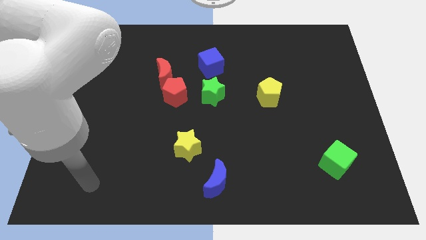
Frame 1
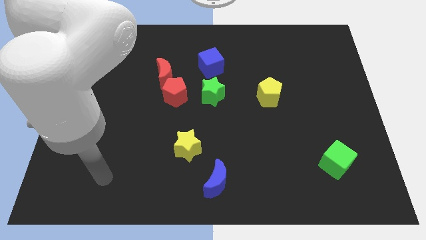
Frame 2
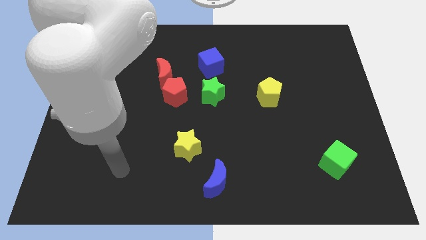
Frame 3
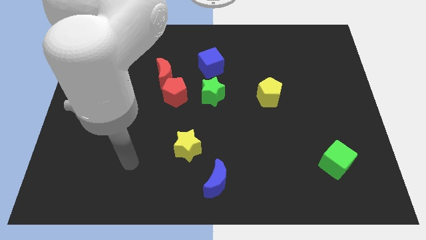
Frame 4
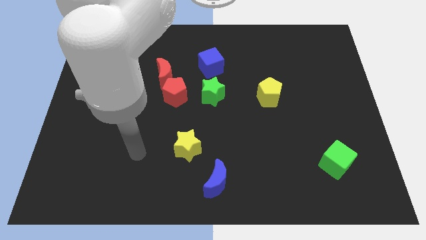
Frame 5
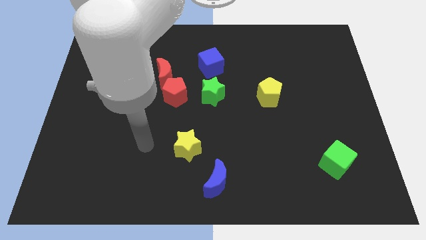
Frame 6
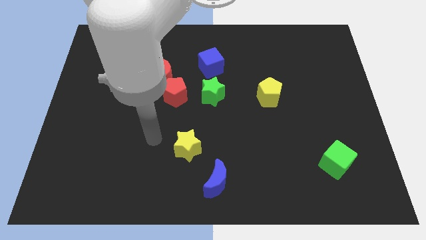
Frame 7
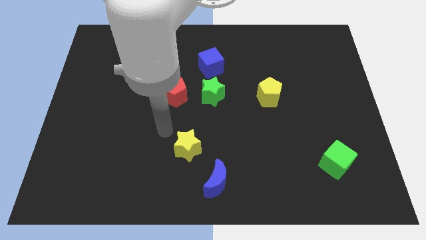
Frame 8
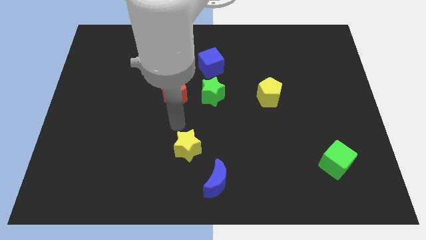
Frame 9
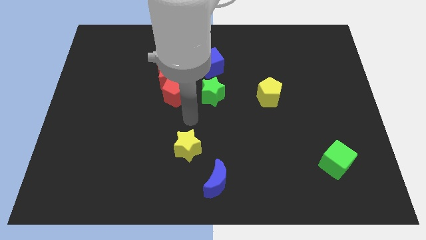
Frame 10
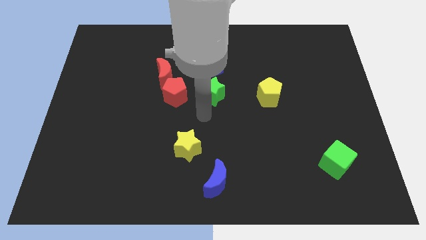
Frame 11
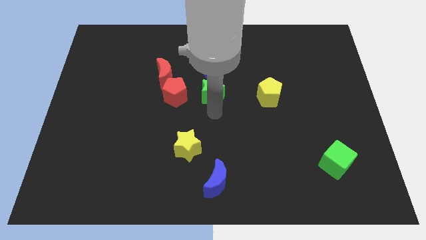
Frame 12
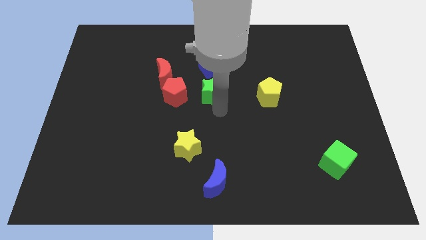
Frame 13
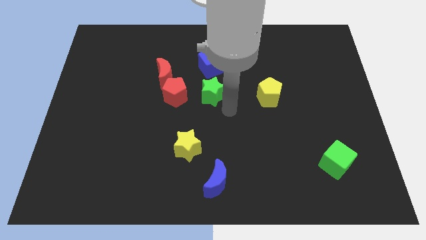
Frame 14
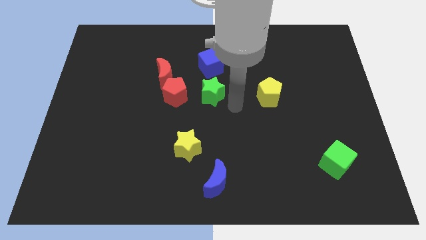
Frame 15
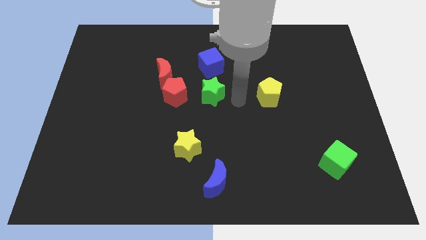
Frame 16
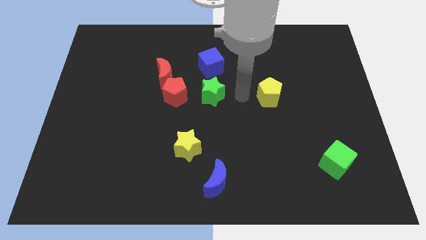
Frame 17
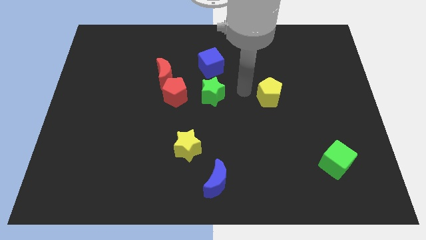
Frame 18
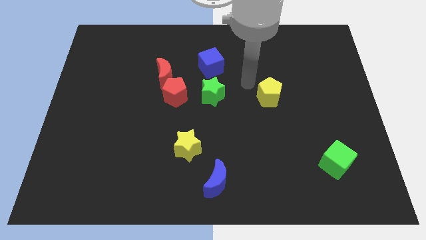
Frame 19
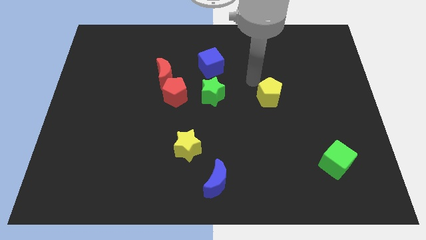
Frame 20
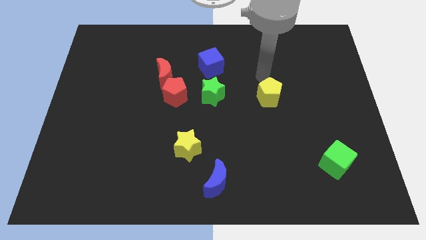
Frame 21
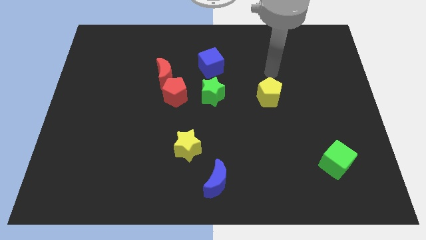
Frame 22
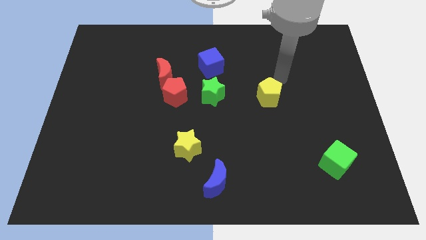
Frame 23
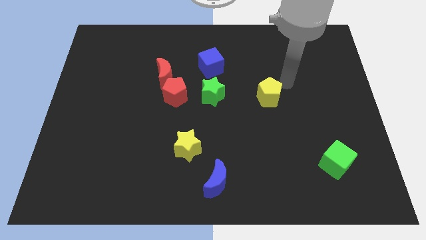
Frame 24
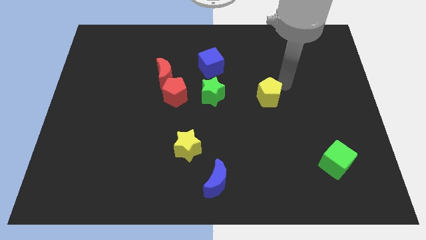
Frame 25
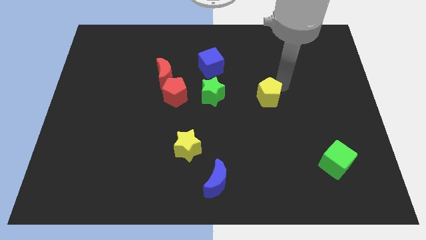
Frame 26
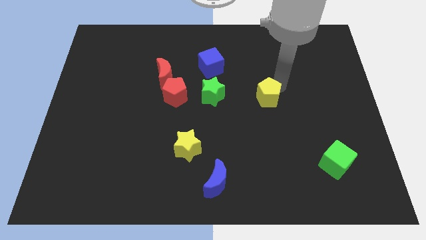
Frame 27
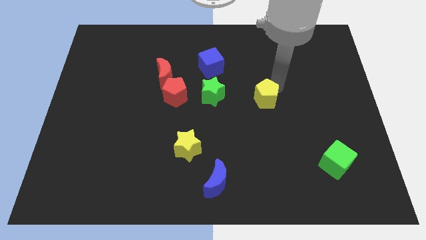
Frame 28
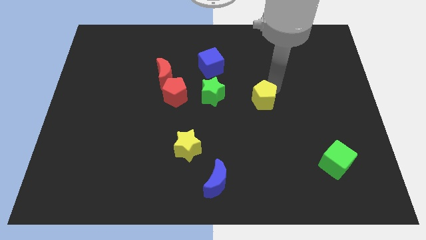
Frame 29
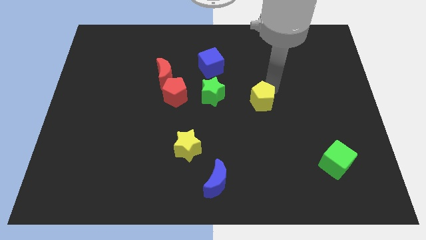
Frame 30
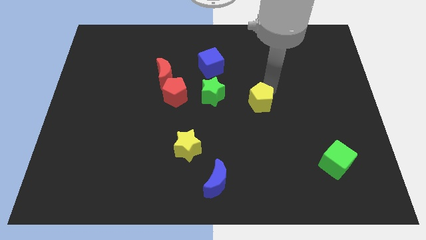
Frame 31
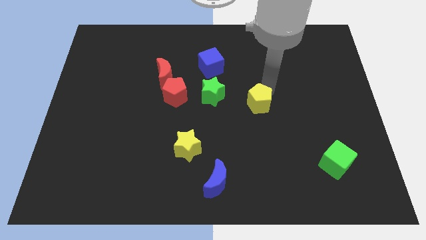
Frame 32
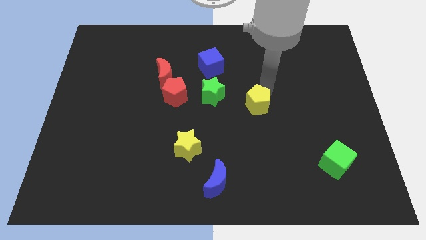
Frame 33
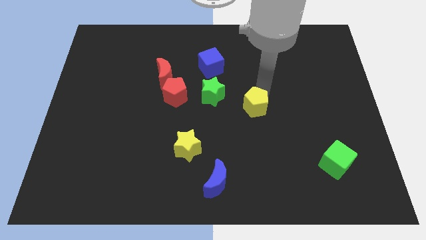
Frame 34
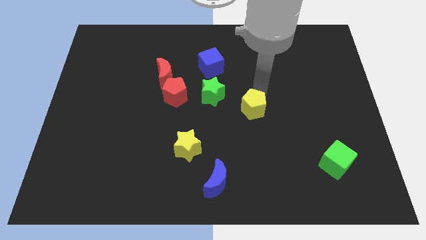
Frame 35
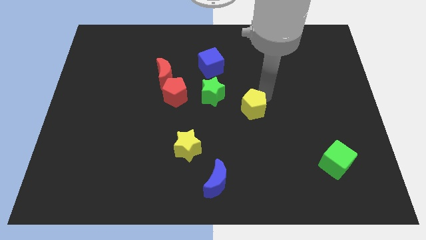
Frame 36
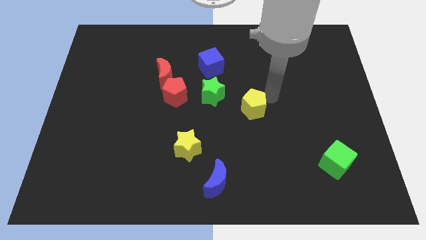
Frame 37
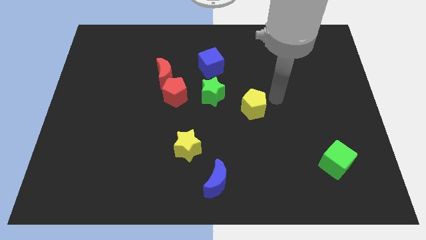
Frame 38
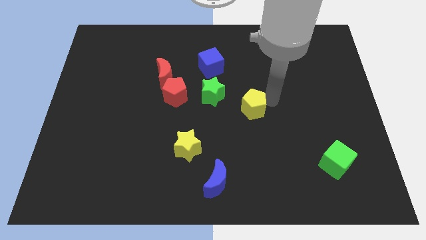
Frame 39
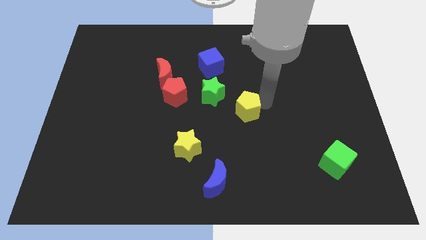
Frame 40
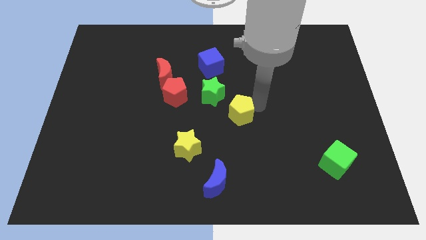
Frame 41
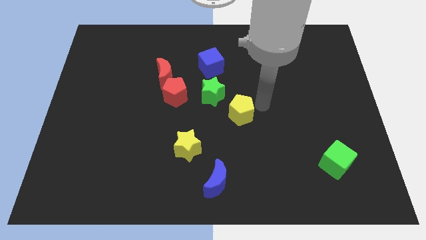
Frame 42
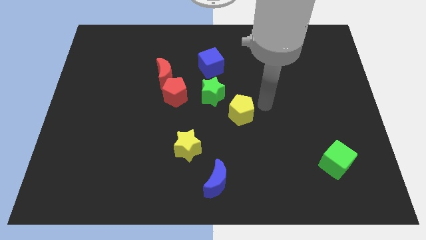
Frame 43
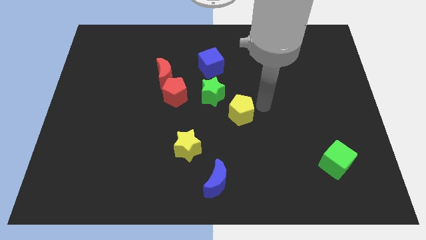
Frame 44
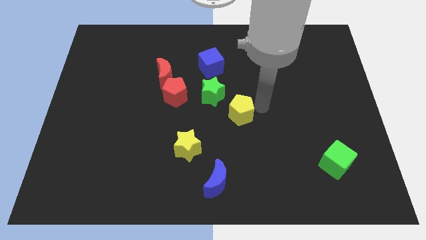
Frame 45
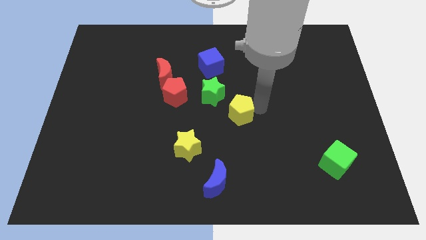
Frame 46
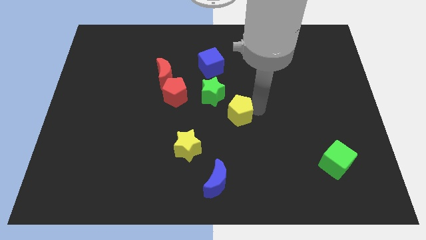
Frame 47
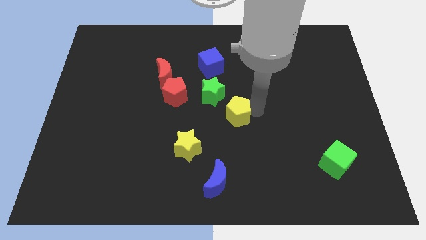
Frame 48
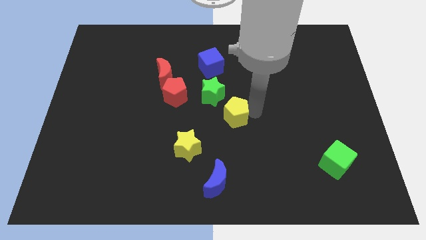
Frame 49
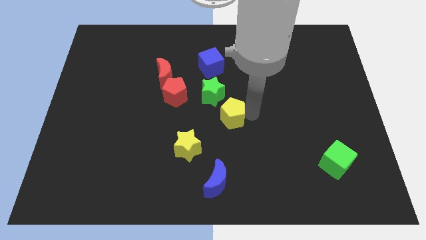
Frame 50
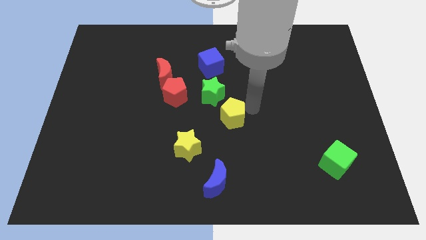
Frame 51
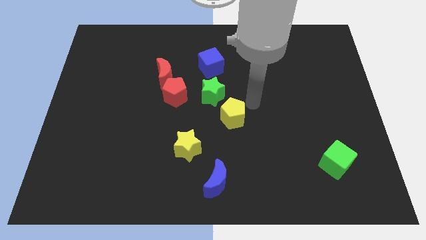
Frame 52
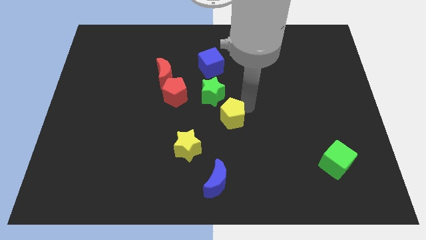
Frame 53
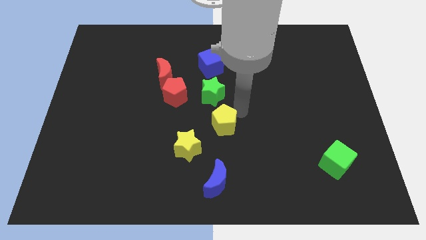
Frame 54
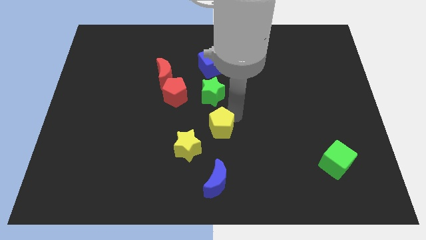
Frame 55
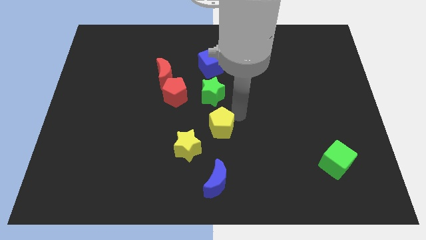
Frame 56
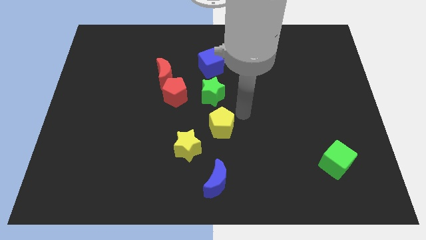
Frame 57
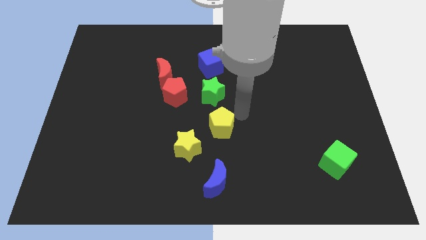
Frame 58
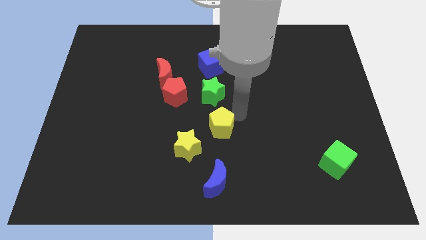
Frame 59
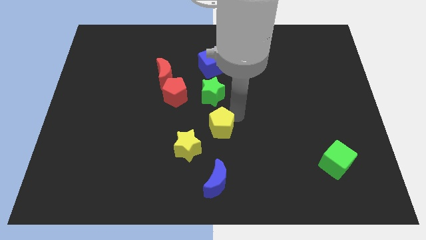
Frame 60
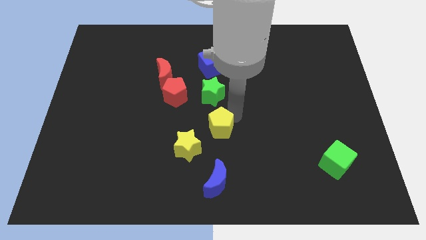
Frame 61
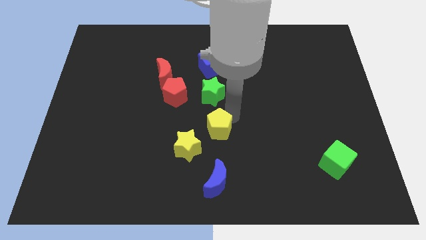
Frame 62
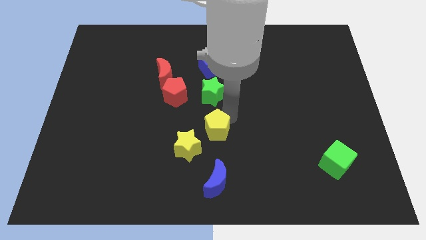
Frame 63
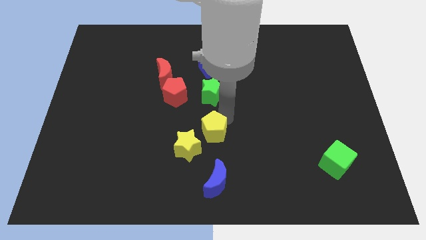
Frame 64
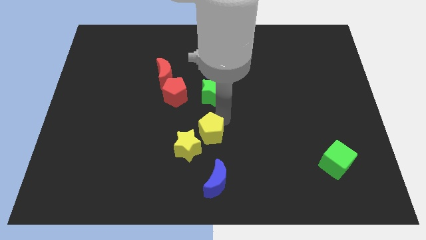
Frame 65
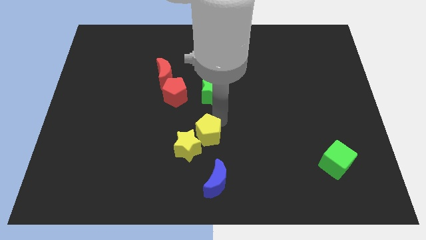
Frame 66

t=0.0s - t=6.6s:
put the yellow pentagon to the yellow star

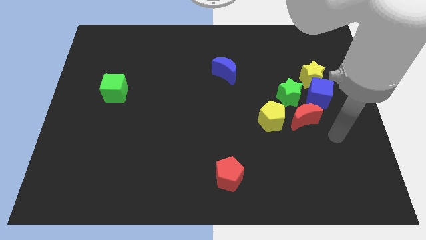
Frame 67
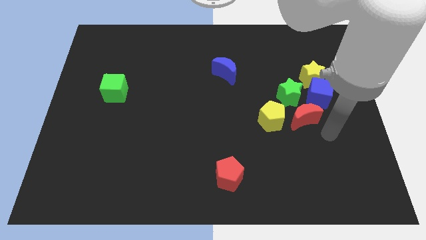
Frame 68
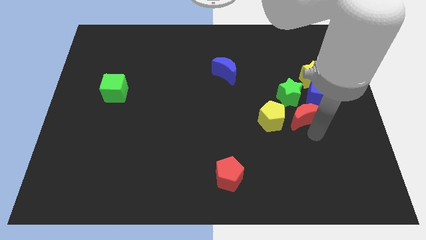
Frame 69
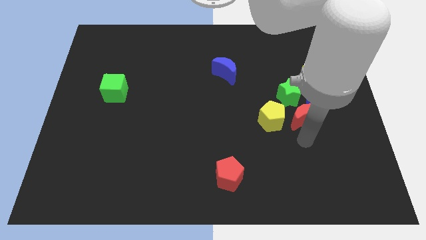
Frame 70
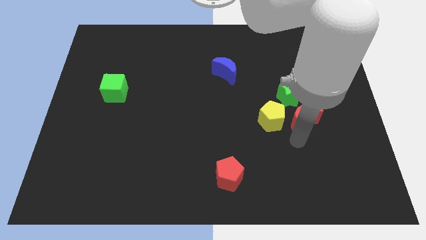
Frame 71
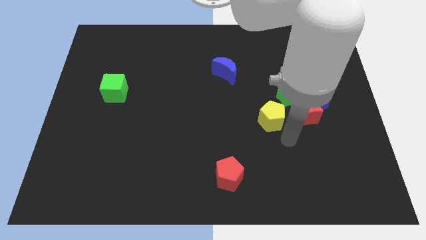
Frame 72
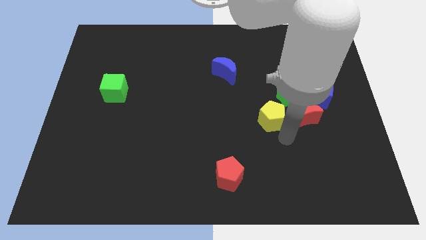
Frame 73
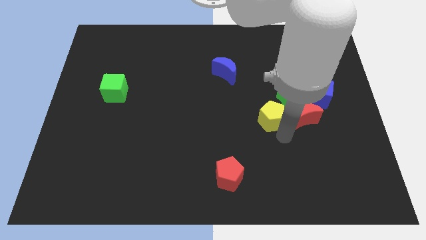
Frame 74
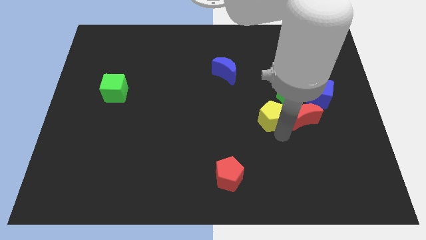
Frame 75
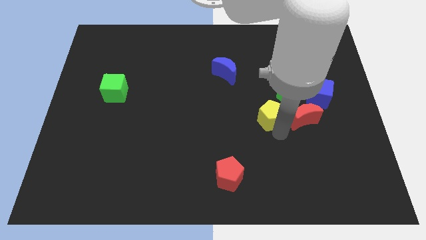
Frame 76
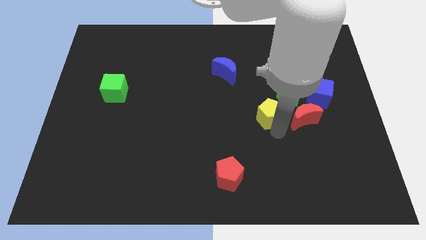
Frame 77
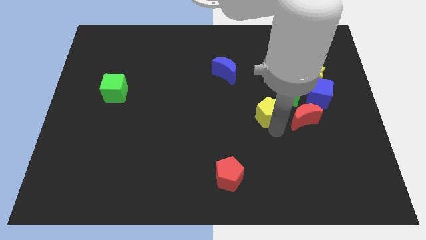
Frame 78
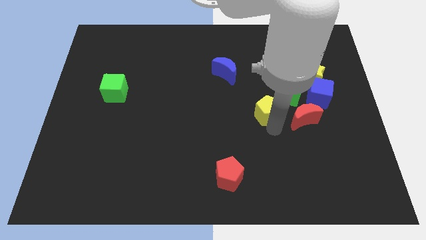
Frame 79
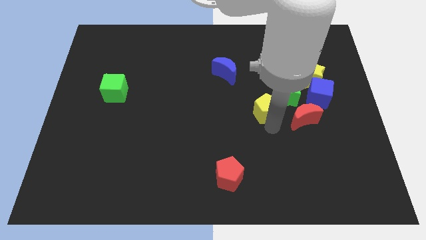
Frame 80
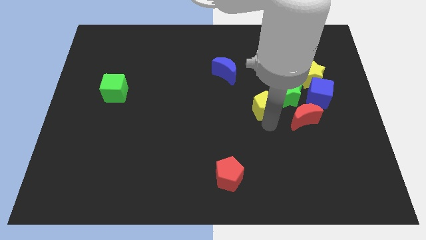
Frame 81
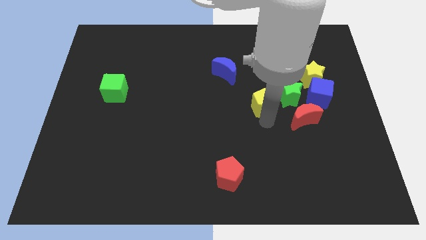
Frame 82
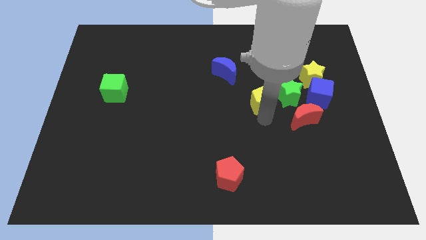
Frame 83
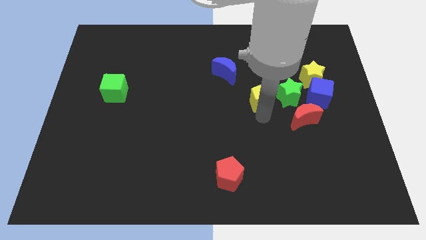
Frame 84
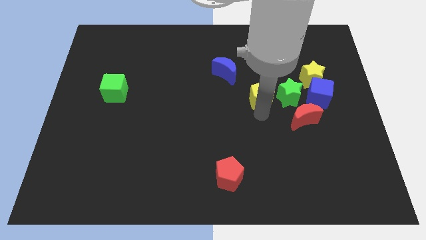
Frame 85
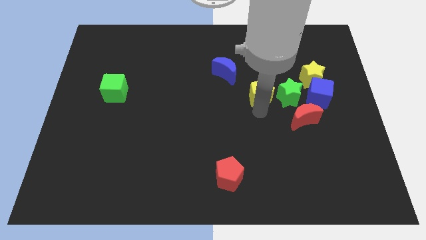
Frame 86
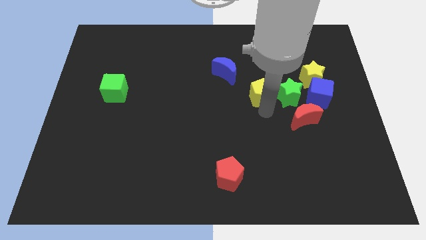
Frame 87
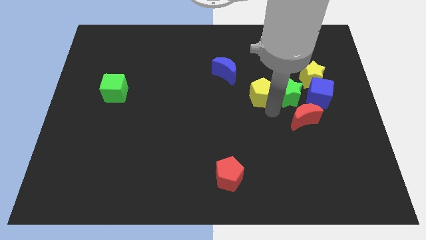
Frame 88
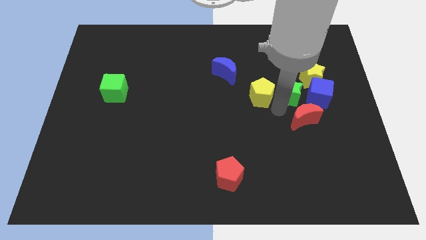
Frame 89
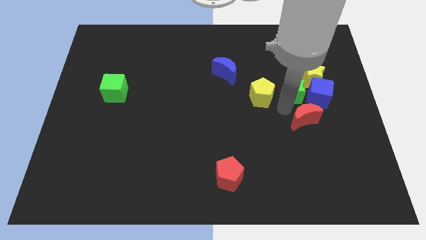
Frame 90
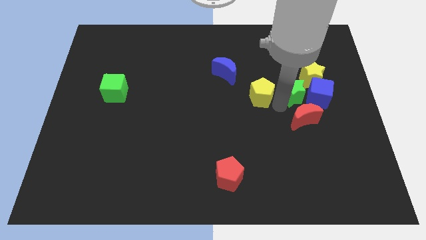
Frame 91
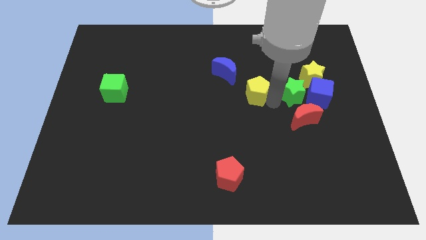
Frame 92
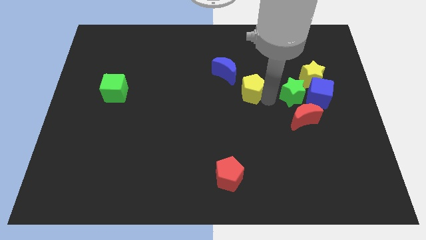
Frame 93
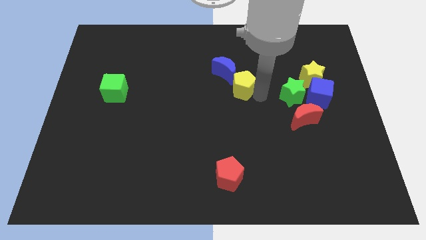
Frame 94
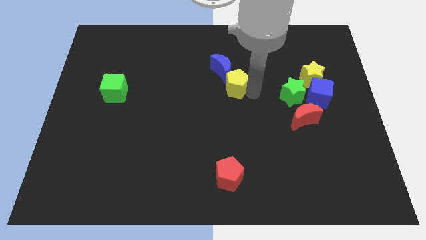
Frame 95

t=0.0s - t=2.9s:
slide the yellow pentagon to the blue moon
